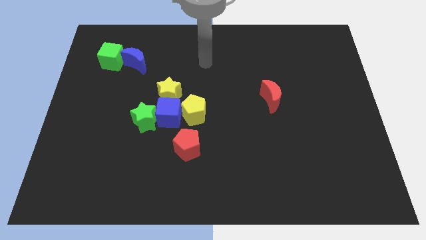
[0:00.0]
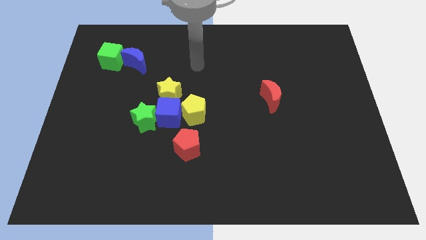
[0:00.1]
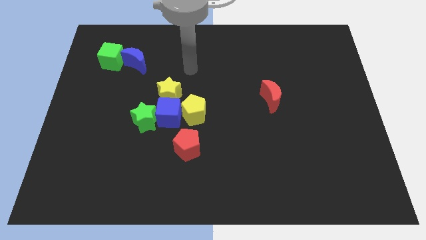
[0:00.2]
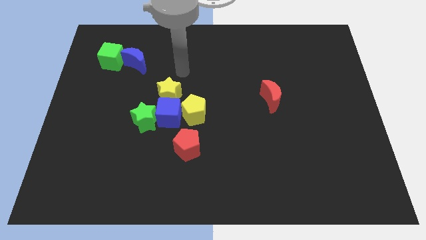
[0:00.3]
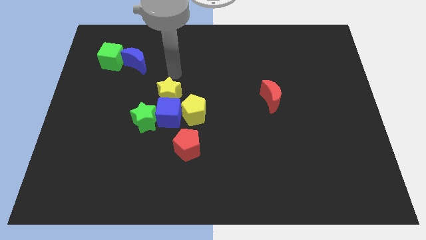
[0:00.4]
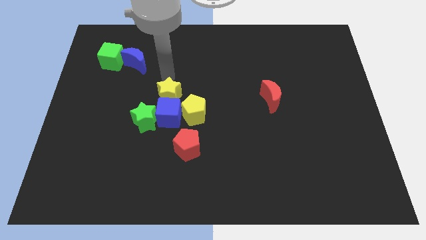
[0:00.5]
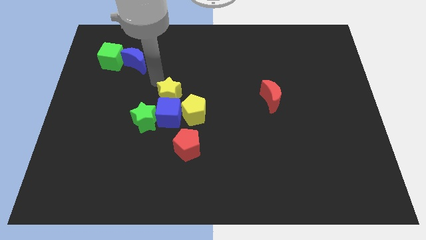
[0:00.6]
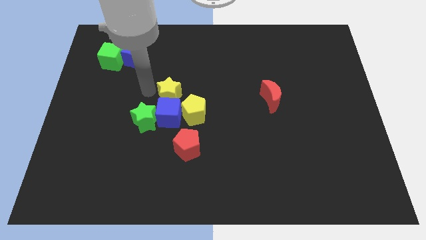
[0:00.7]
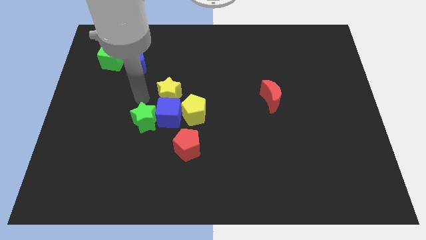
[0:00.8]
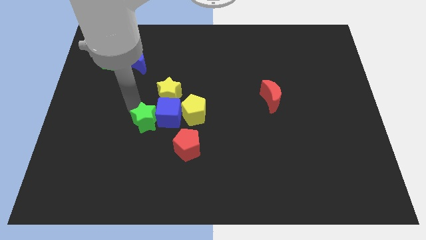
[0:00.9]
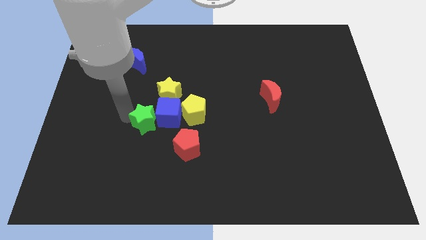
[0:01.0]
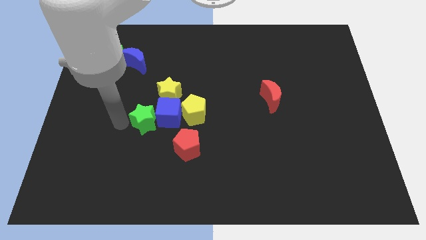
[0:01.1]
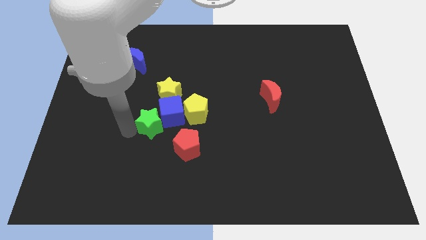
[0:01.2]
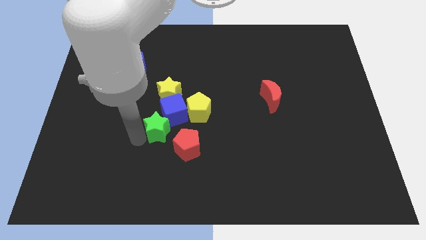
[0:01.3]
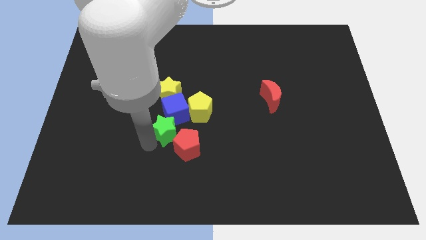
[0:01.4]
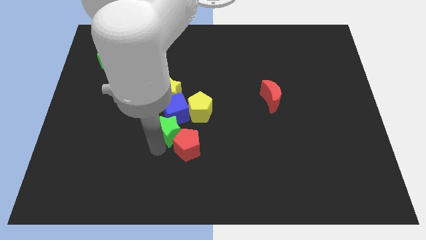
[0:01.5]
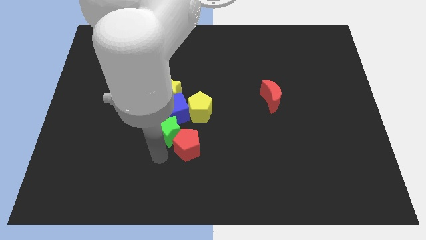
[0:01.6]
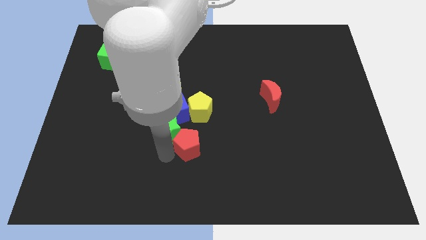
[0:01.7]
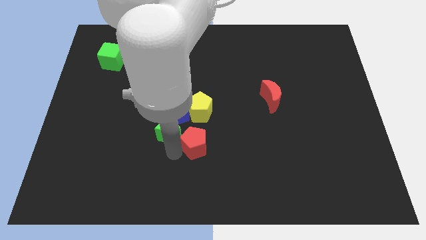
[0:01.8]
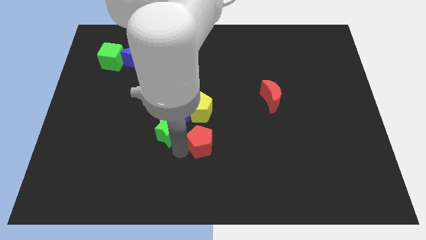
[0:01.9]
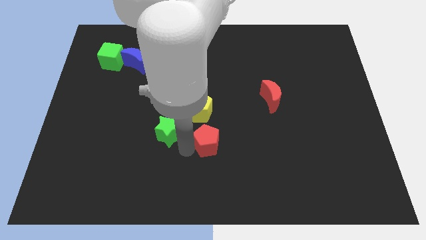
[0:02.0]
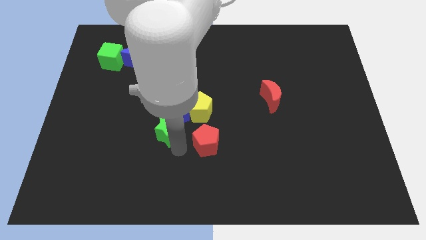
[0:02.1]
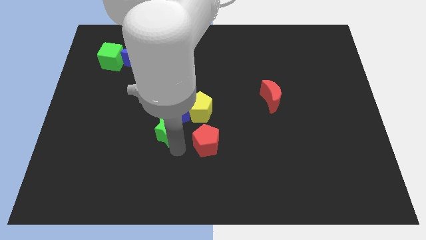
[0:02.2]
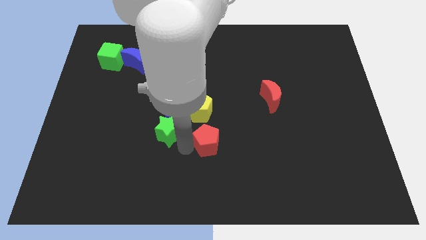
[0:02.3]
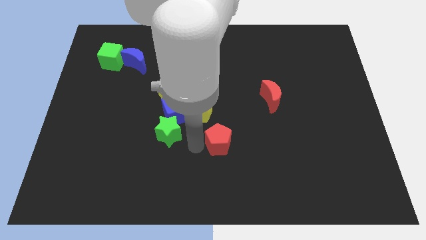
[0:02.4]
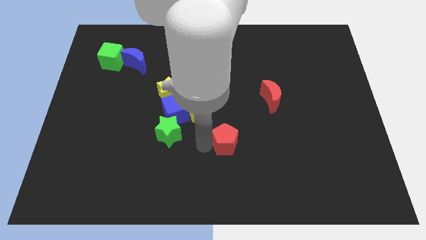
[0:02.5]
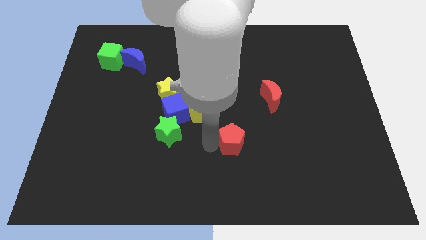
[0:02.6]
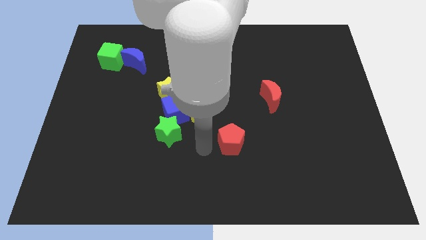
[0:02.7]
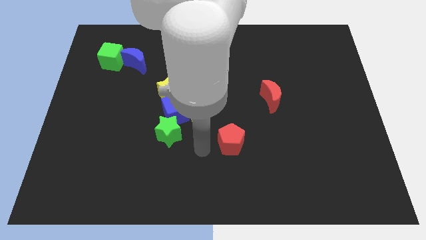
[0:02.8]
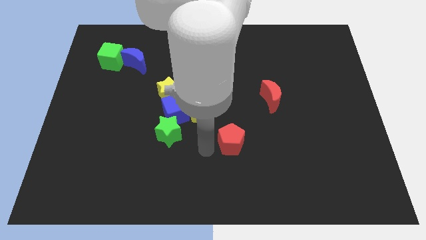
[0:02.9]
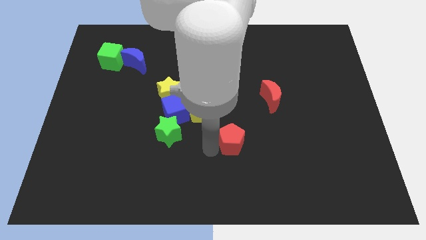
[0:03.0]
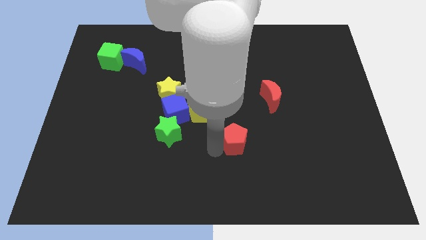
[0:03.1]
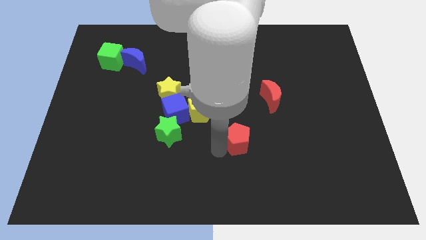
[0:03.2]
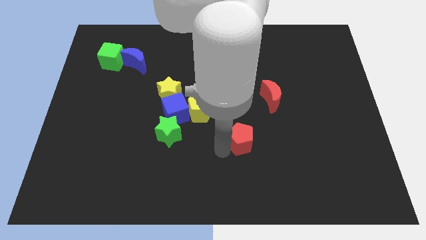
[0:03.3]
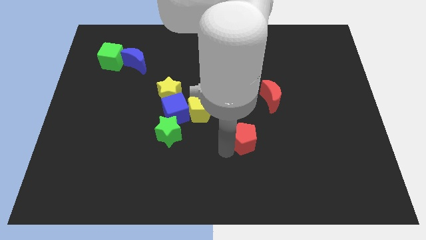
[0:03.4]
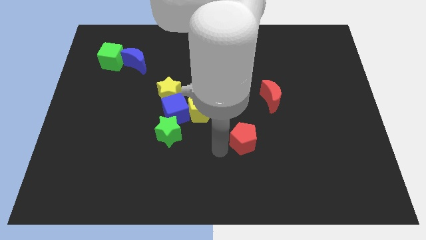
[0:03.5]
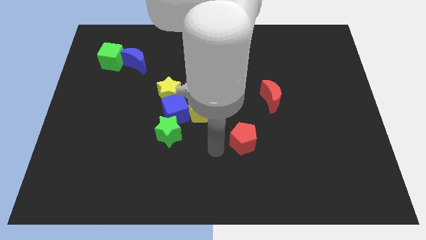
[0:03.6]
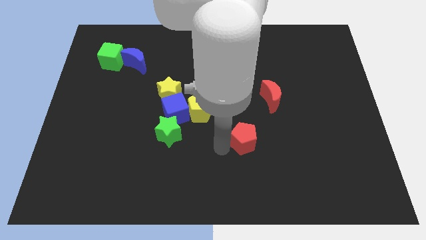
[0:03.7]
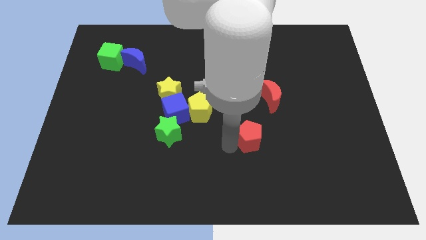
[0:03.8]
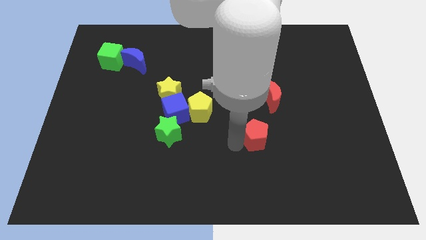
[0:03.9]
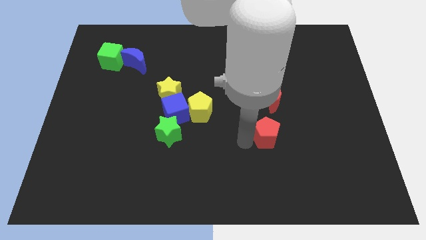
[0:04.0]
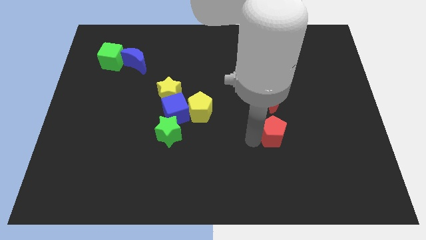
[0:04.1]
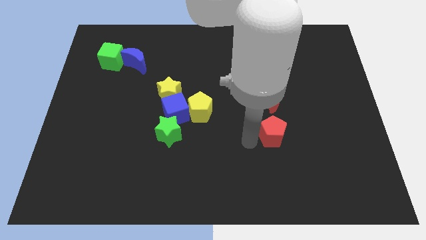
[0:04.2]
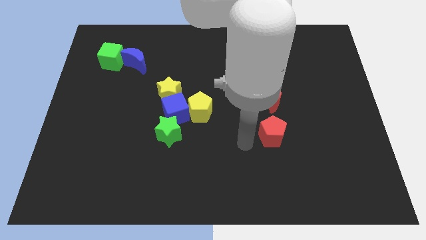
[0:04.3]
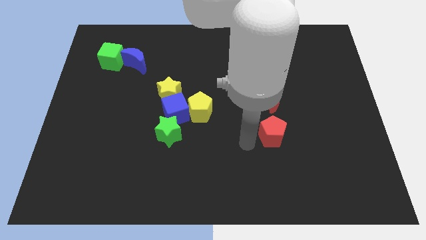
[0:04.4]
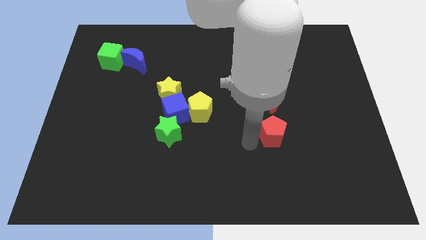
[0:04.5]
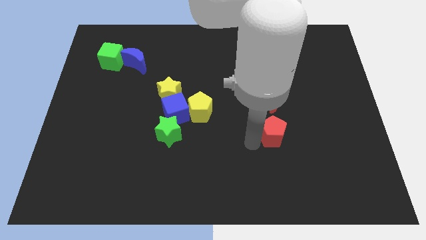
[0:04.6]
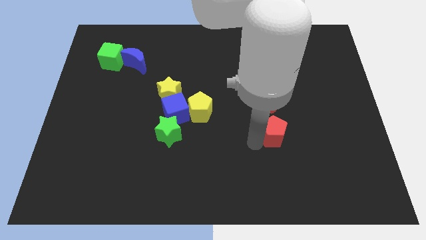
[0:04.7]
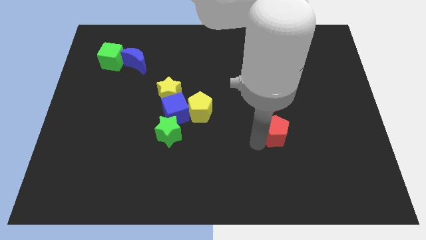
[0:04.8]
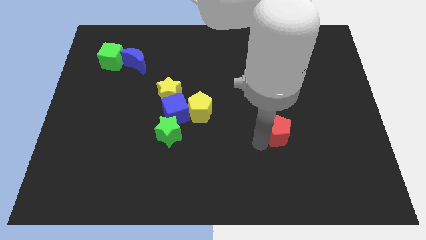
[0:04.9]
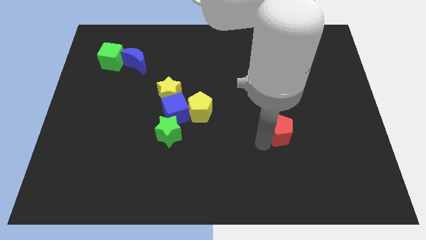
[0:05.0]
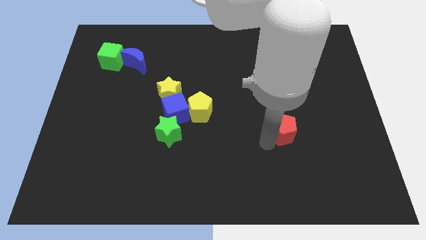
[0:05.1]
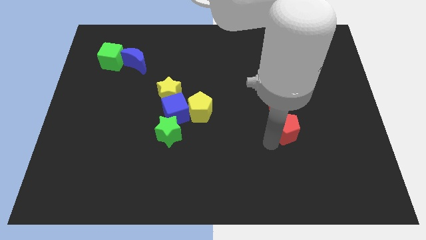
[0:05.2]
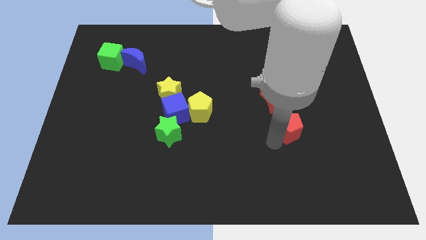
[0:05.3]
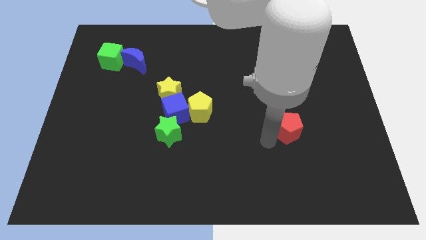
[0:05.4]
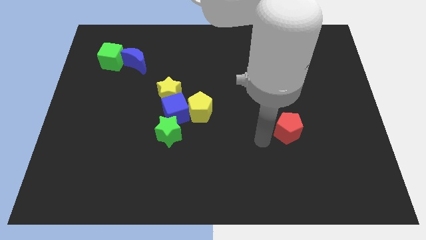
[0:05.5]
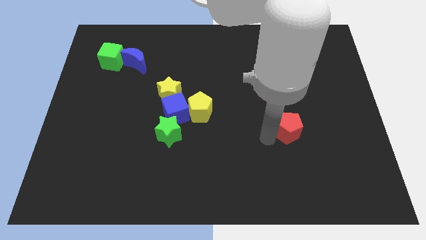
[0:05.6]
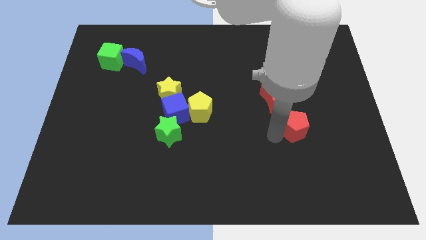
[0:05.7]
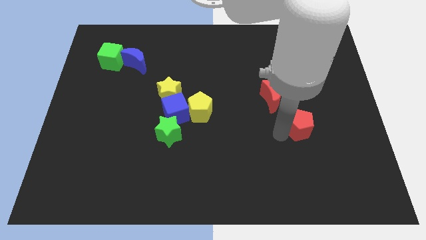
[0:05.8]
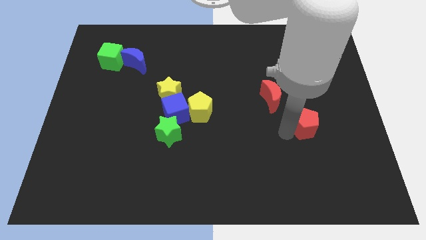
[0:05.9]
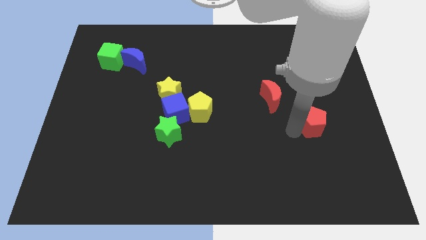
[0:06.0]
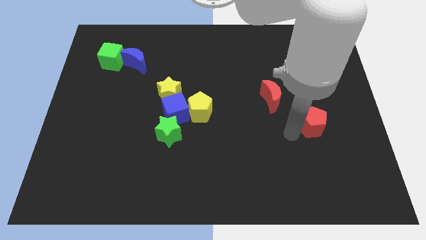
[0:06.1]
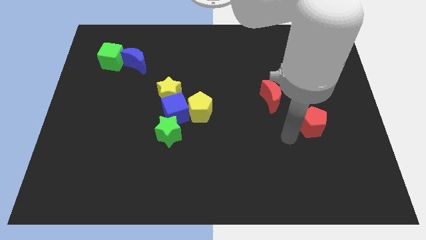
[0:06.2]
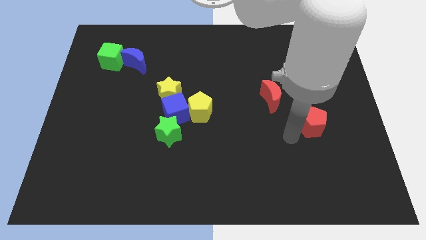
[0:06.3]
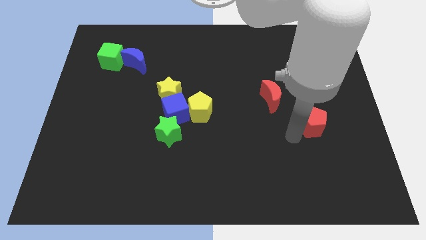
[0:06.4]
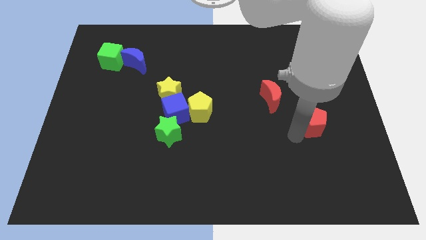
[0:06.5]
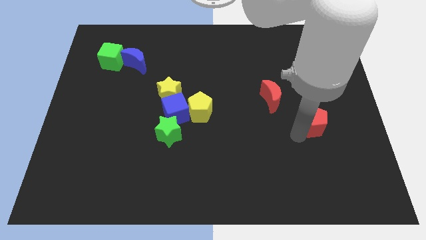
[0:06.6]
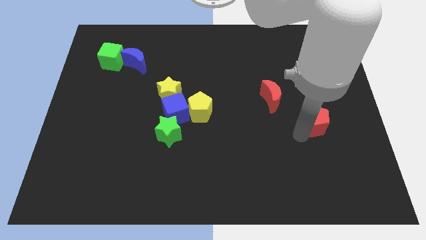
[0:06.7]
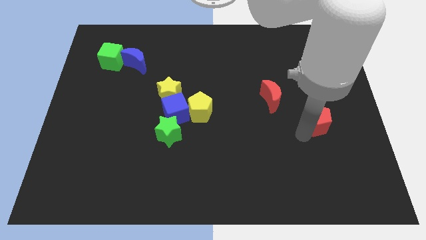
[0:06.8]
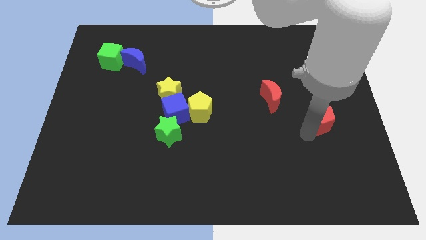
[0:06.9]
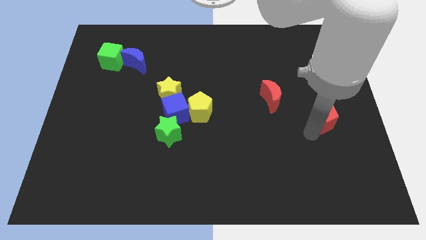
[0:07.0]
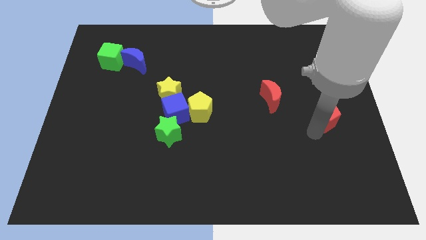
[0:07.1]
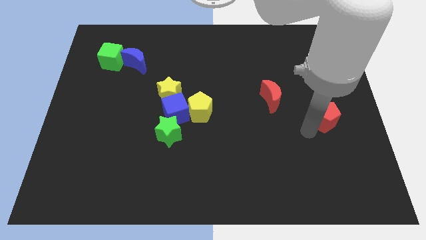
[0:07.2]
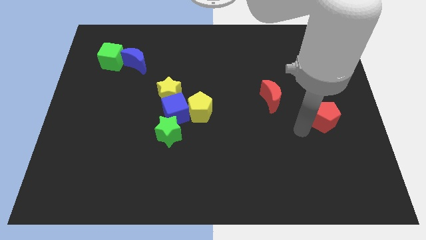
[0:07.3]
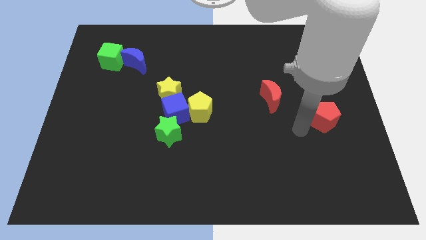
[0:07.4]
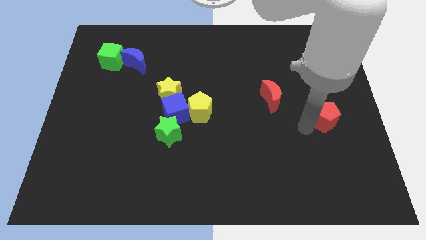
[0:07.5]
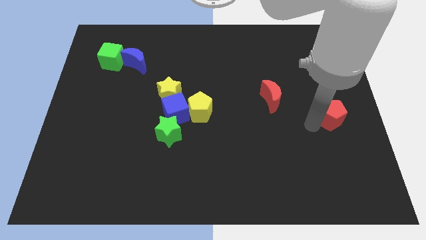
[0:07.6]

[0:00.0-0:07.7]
move the red pentagon to the center right
